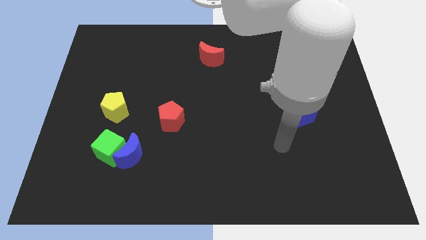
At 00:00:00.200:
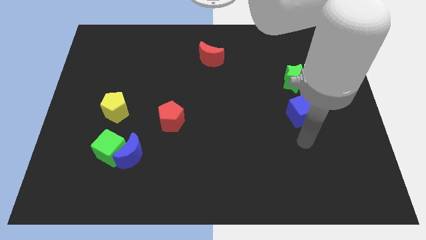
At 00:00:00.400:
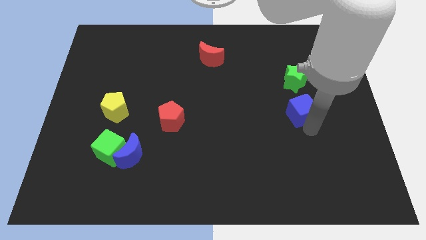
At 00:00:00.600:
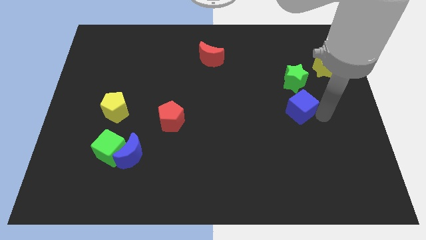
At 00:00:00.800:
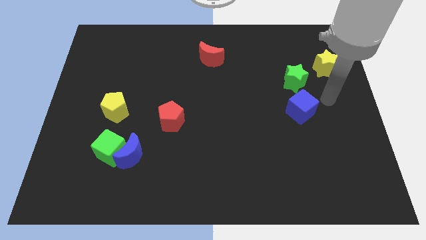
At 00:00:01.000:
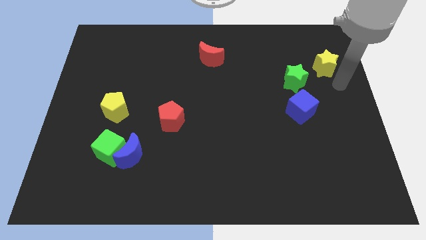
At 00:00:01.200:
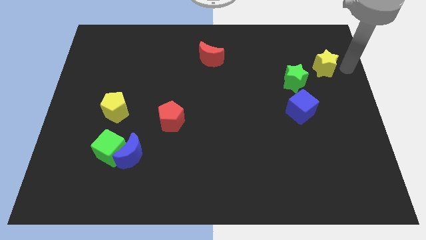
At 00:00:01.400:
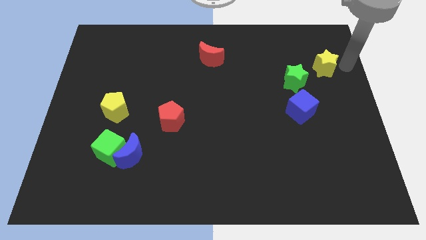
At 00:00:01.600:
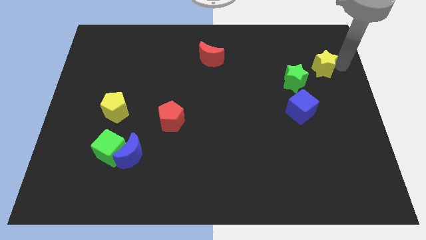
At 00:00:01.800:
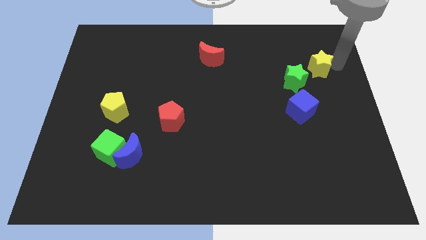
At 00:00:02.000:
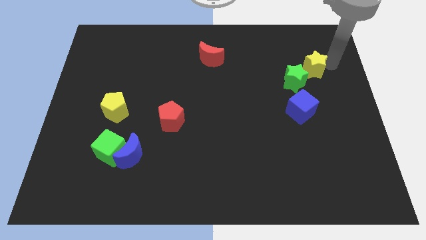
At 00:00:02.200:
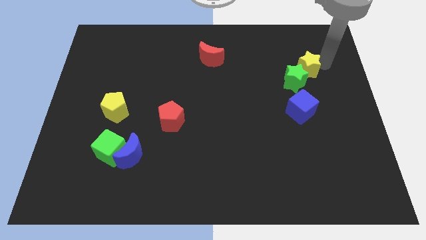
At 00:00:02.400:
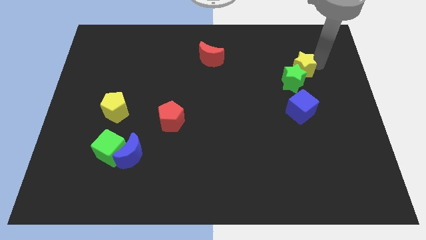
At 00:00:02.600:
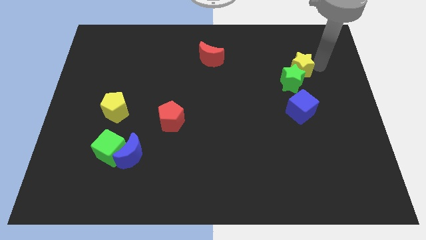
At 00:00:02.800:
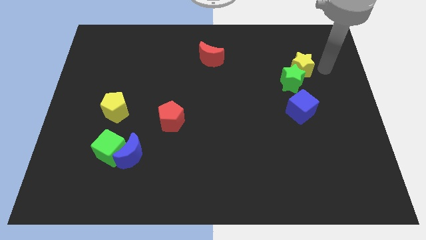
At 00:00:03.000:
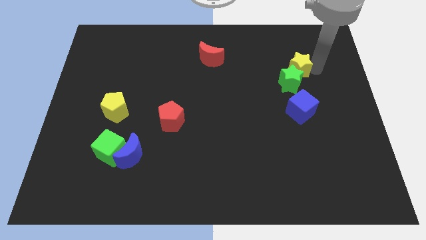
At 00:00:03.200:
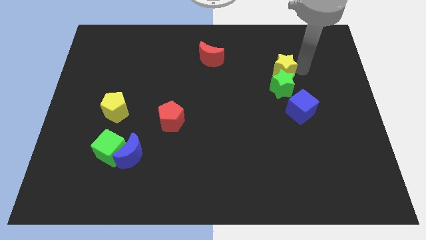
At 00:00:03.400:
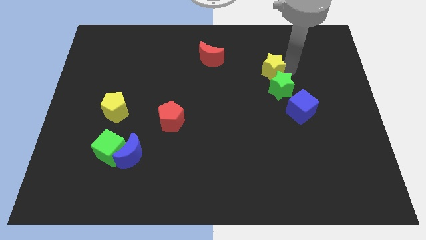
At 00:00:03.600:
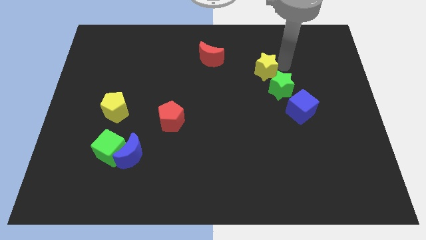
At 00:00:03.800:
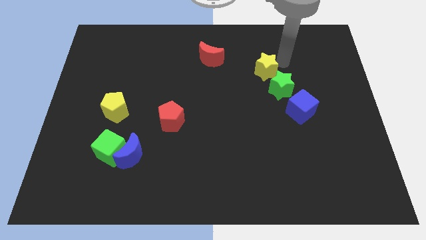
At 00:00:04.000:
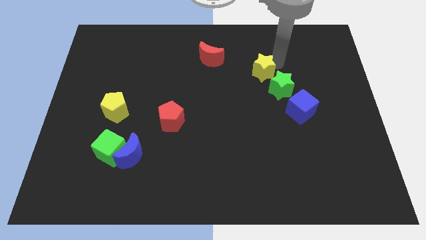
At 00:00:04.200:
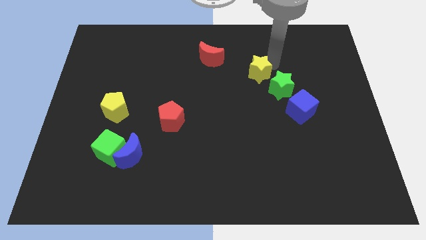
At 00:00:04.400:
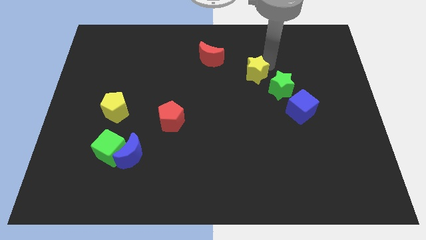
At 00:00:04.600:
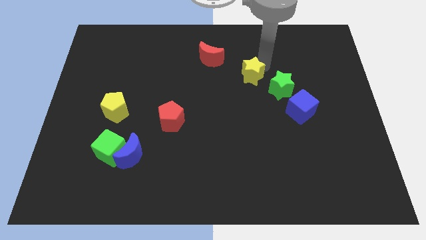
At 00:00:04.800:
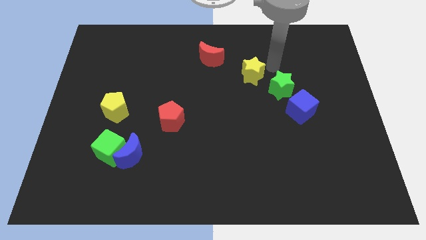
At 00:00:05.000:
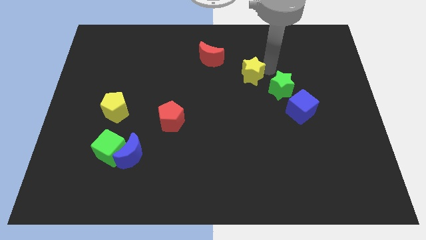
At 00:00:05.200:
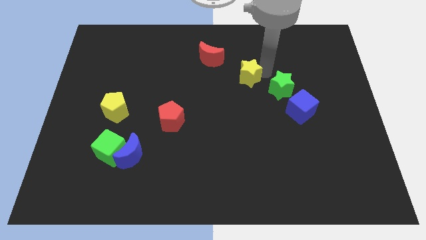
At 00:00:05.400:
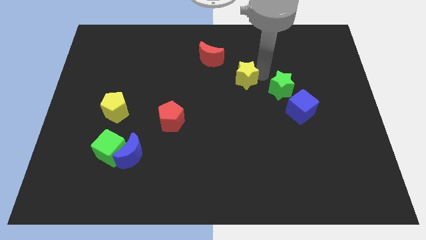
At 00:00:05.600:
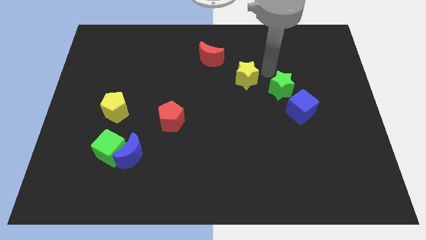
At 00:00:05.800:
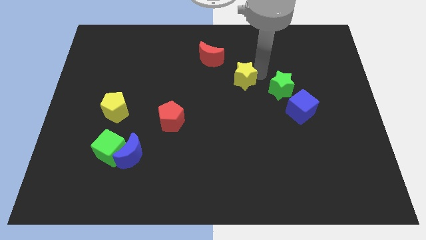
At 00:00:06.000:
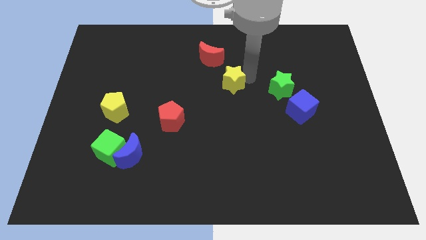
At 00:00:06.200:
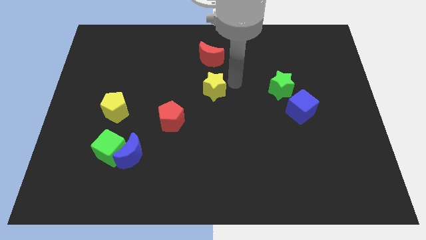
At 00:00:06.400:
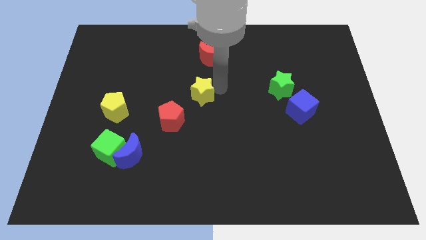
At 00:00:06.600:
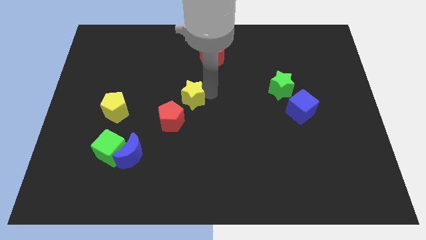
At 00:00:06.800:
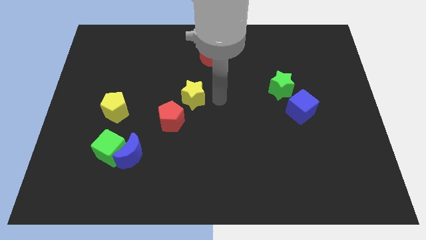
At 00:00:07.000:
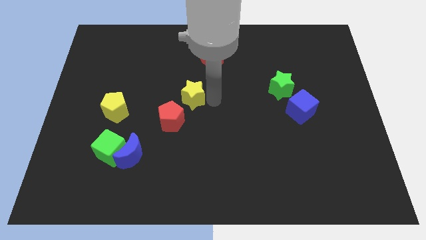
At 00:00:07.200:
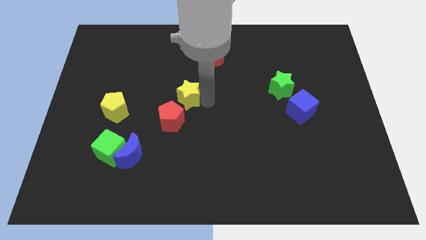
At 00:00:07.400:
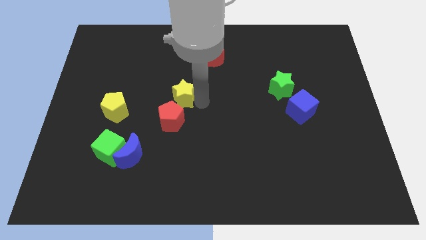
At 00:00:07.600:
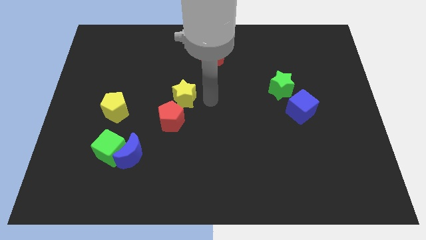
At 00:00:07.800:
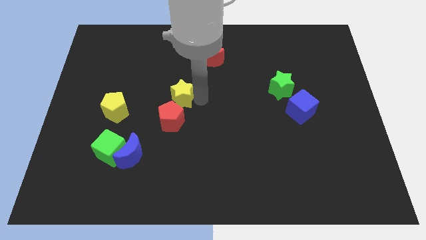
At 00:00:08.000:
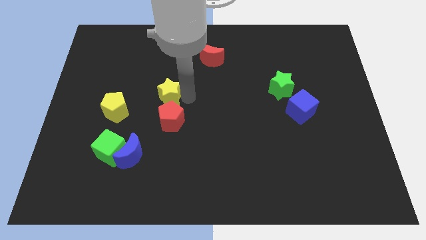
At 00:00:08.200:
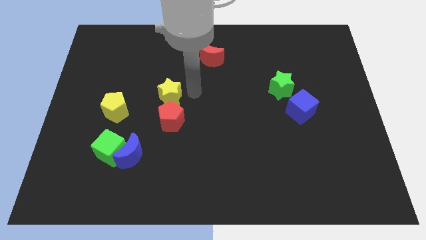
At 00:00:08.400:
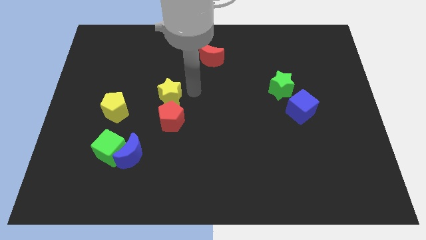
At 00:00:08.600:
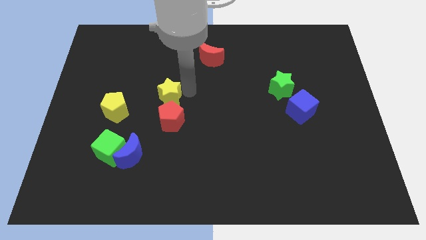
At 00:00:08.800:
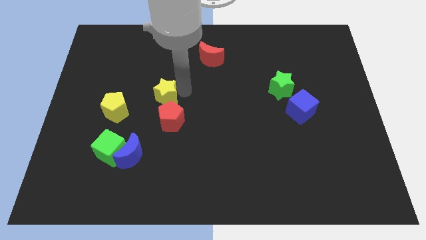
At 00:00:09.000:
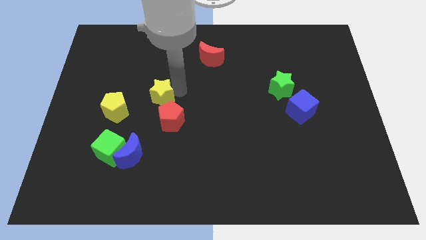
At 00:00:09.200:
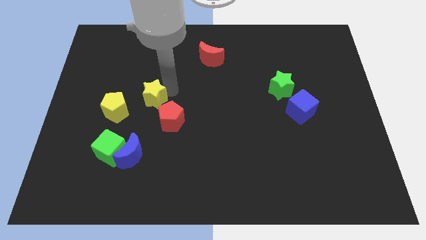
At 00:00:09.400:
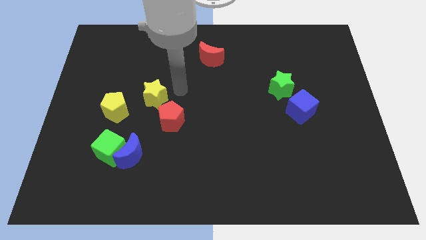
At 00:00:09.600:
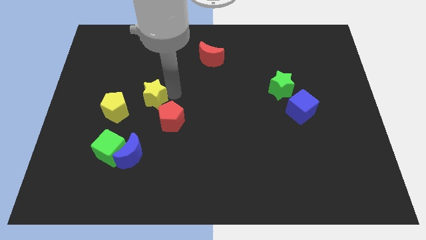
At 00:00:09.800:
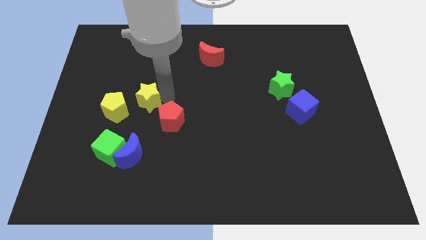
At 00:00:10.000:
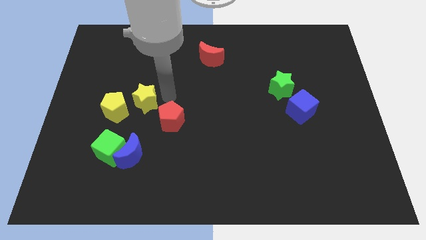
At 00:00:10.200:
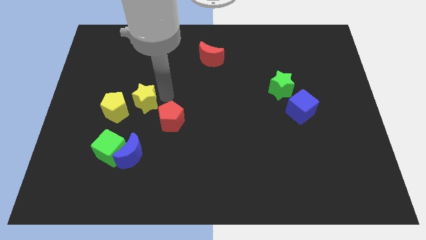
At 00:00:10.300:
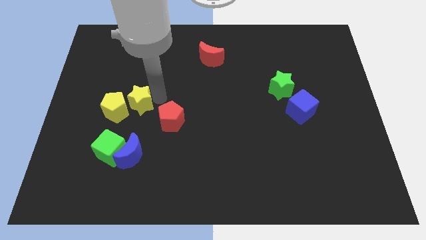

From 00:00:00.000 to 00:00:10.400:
slide the yellow star close to the yellow pentagon

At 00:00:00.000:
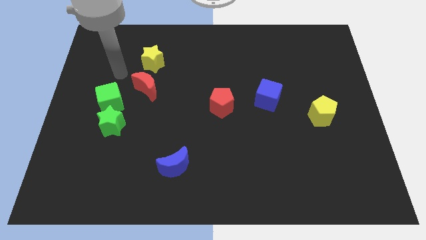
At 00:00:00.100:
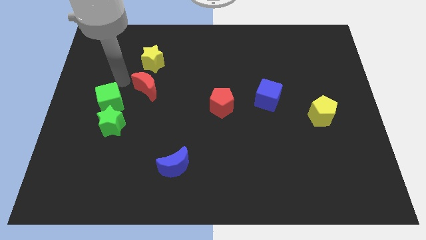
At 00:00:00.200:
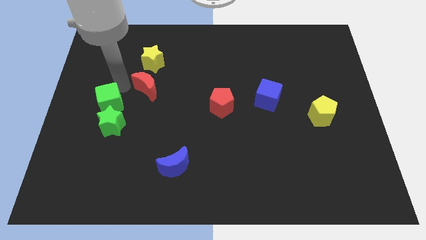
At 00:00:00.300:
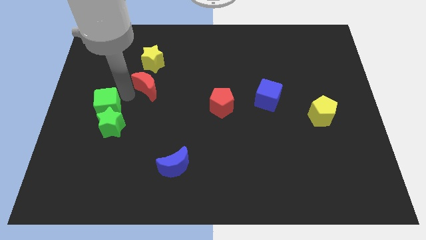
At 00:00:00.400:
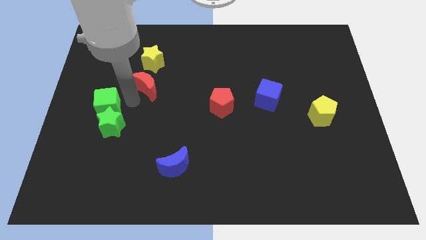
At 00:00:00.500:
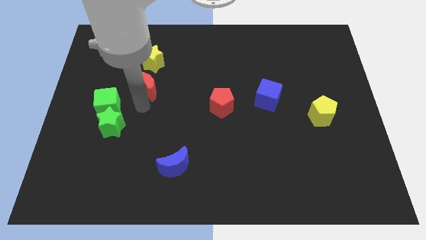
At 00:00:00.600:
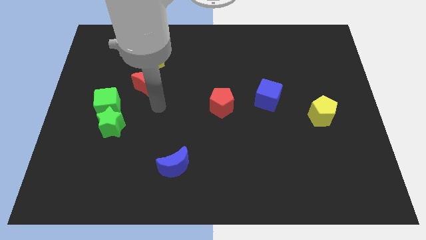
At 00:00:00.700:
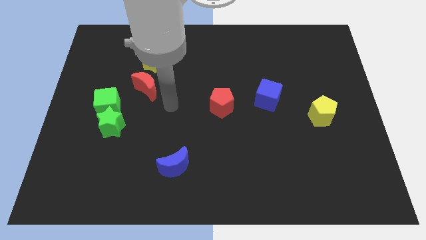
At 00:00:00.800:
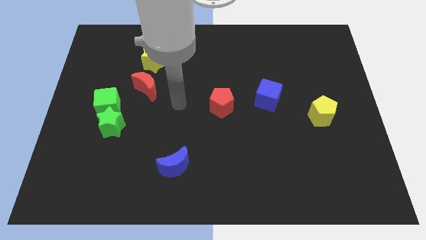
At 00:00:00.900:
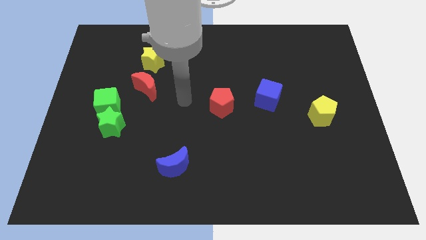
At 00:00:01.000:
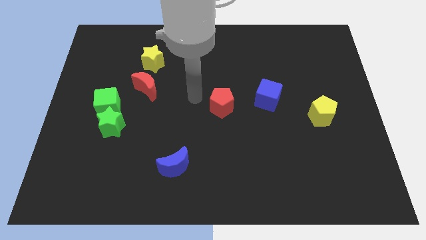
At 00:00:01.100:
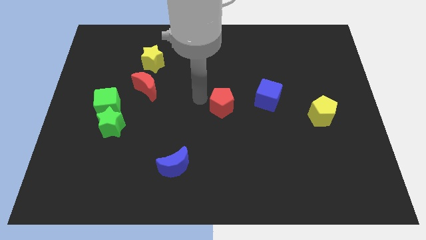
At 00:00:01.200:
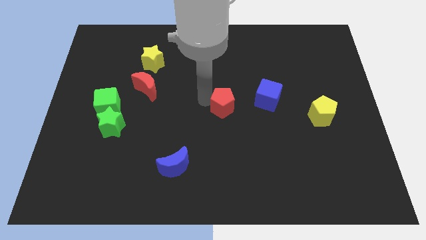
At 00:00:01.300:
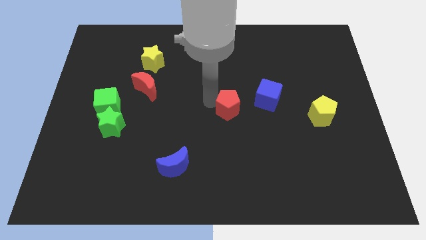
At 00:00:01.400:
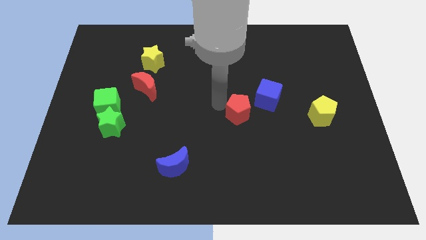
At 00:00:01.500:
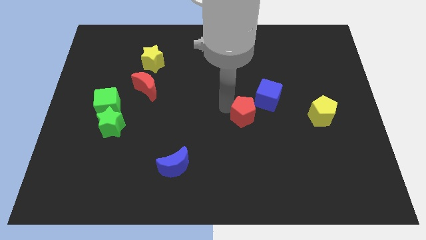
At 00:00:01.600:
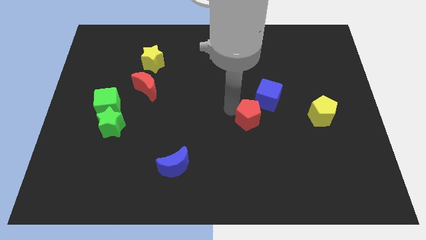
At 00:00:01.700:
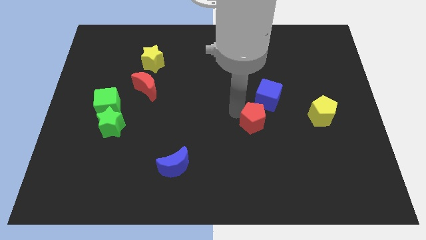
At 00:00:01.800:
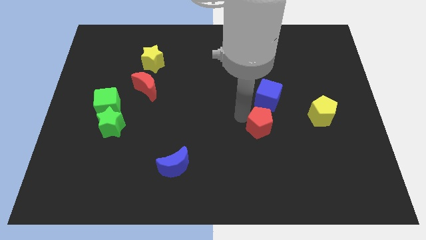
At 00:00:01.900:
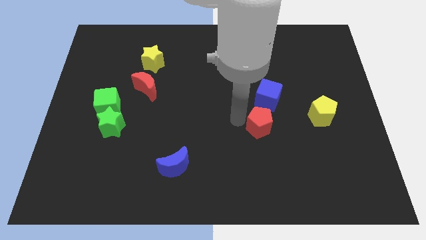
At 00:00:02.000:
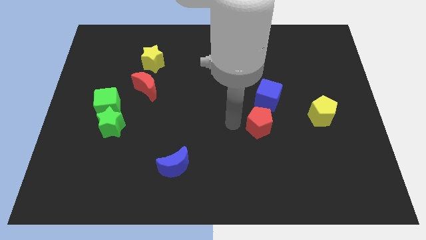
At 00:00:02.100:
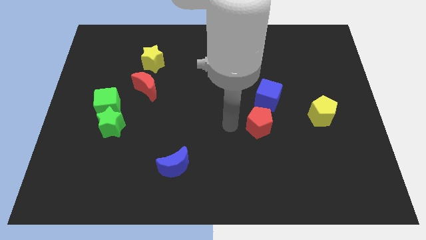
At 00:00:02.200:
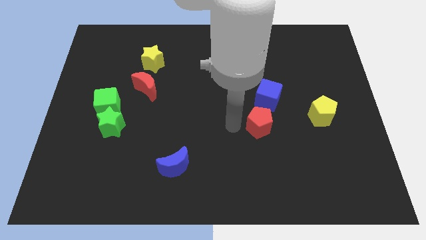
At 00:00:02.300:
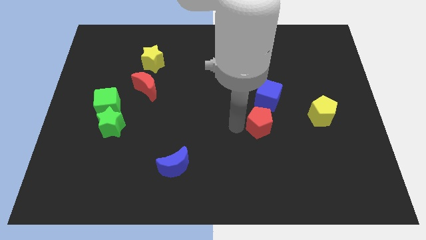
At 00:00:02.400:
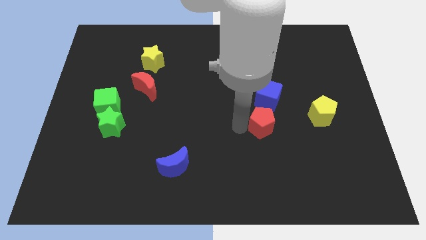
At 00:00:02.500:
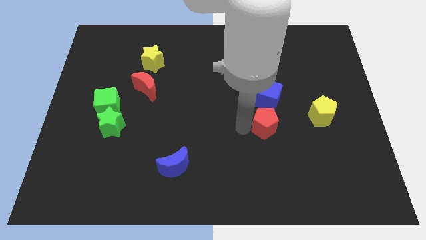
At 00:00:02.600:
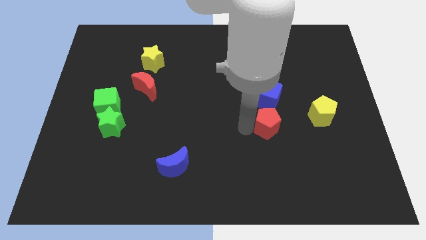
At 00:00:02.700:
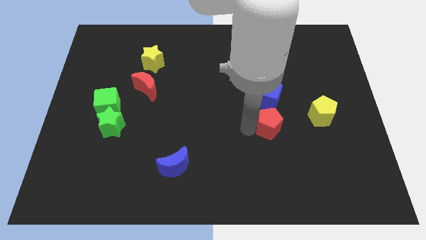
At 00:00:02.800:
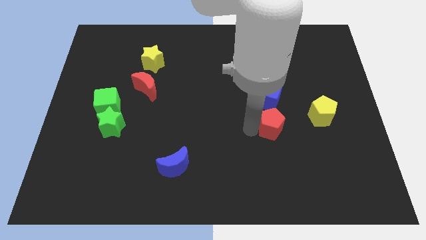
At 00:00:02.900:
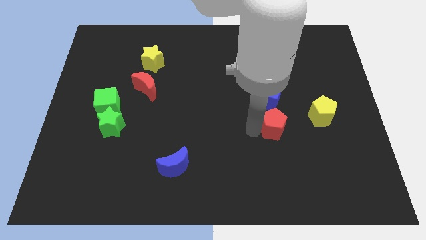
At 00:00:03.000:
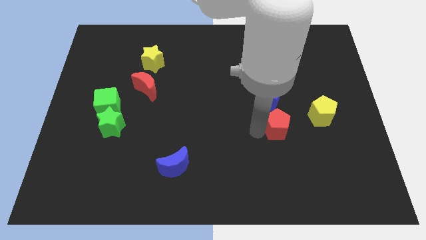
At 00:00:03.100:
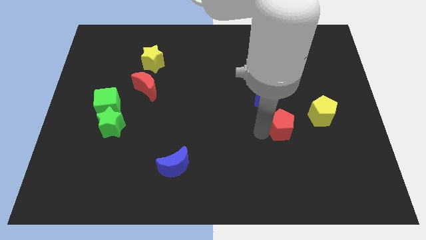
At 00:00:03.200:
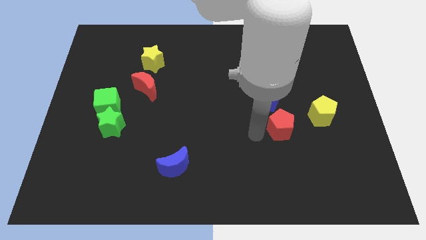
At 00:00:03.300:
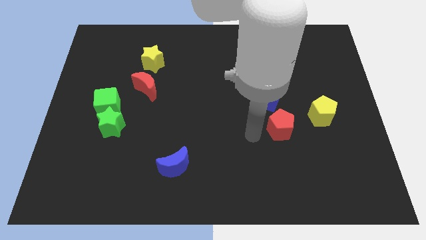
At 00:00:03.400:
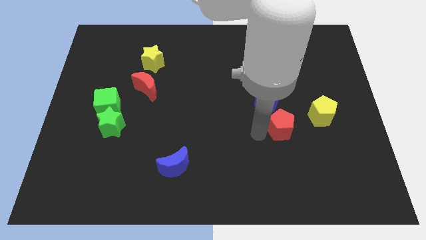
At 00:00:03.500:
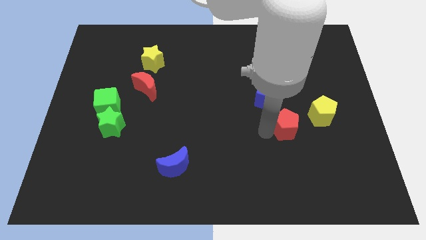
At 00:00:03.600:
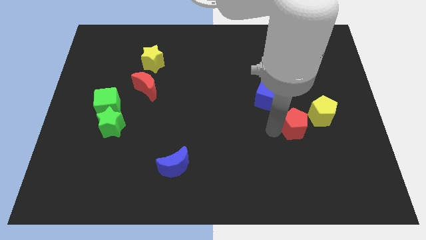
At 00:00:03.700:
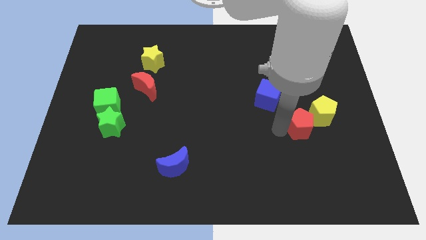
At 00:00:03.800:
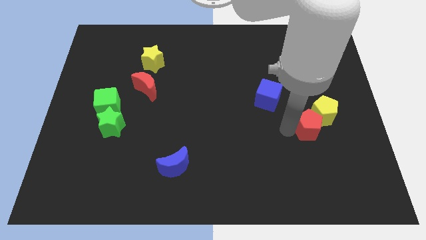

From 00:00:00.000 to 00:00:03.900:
move the red pentagon towards the yellow pentagon
